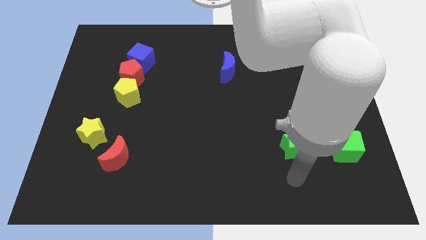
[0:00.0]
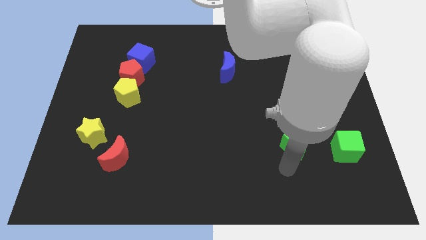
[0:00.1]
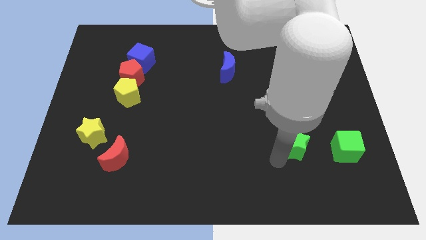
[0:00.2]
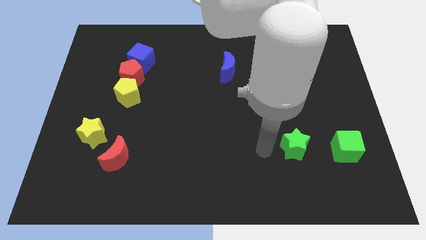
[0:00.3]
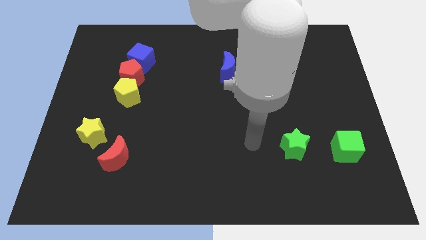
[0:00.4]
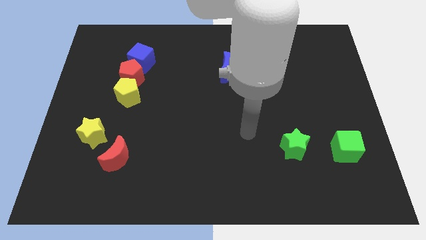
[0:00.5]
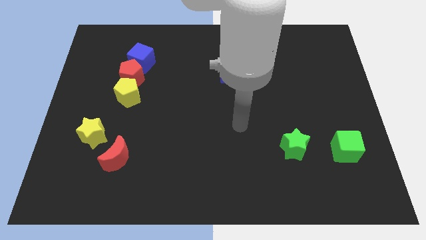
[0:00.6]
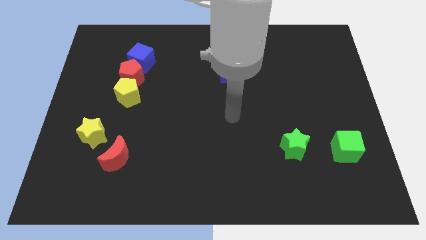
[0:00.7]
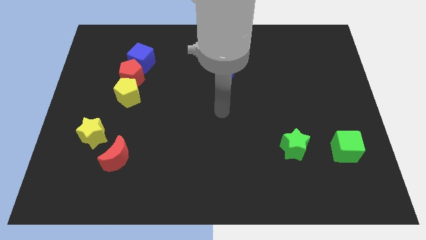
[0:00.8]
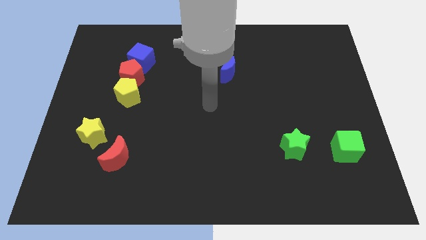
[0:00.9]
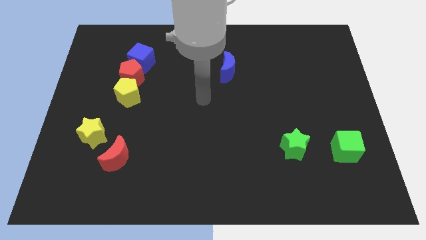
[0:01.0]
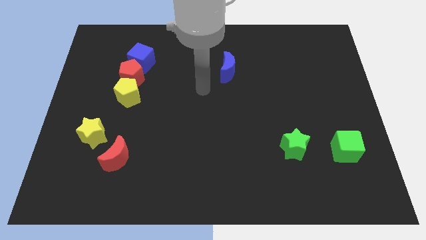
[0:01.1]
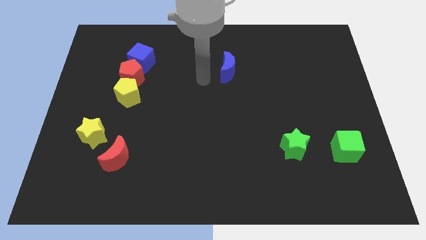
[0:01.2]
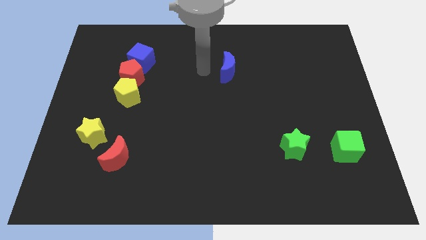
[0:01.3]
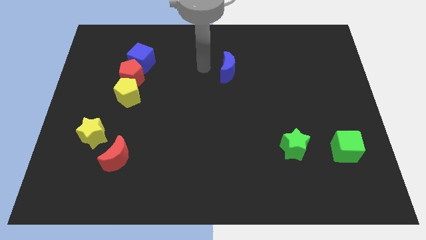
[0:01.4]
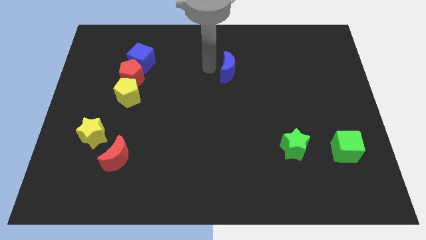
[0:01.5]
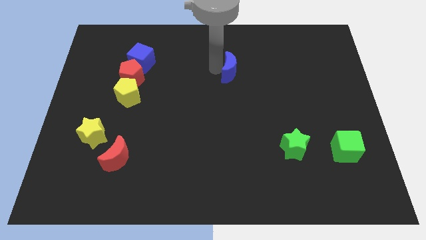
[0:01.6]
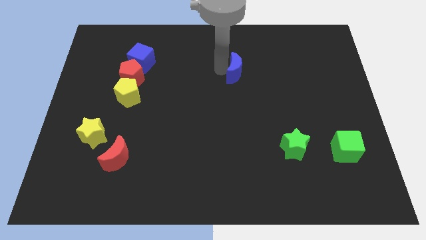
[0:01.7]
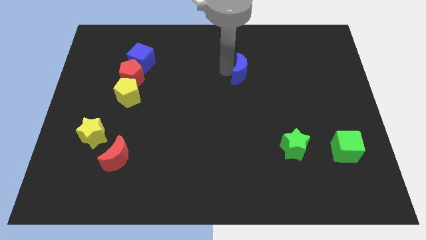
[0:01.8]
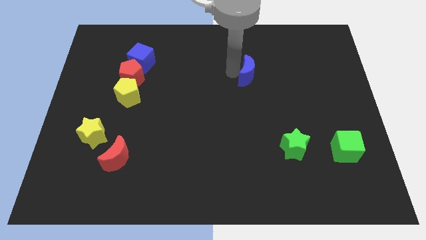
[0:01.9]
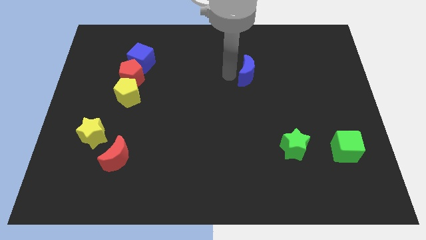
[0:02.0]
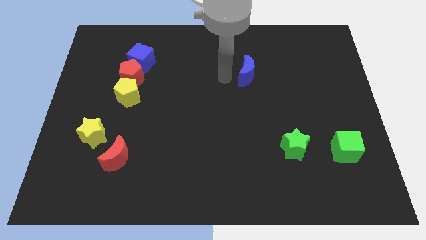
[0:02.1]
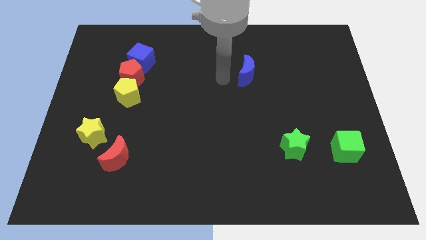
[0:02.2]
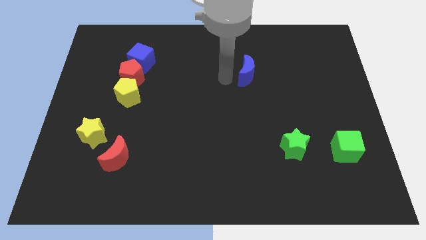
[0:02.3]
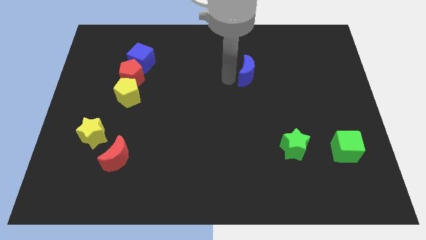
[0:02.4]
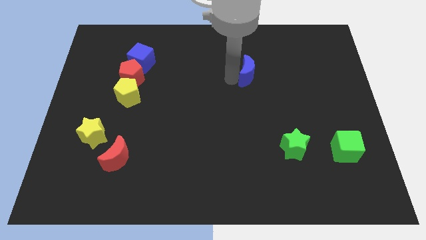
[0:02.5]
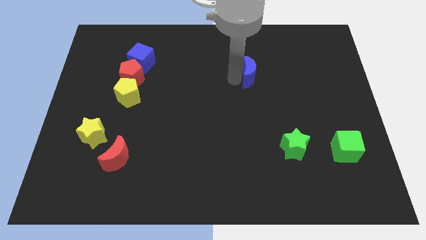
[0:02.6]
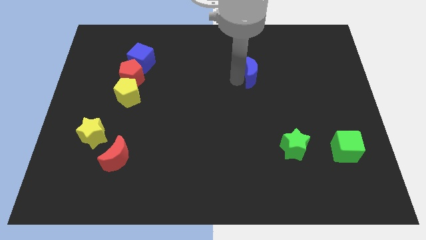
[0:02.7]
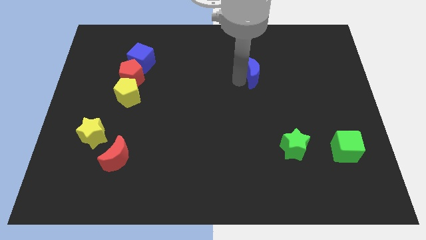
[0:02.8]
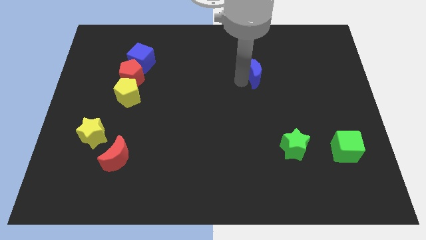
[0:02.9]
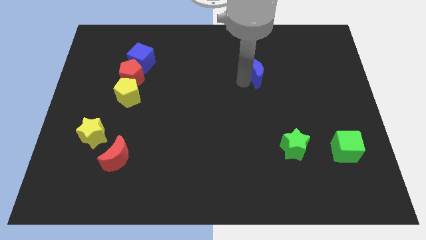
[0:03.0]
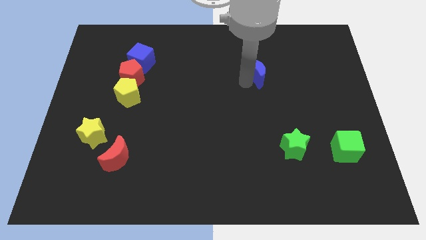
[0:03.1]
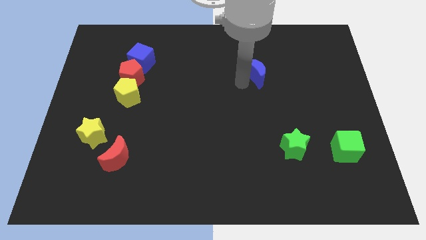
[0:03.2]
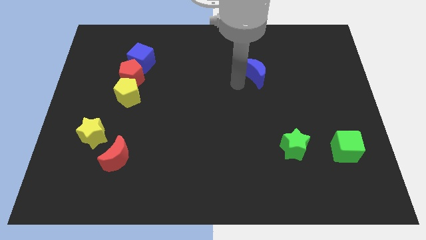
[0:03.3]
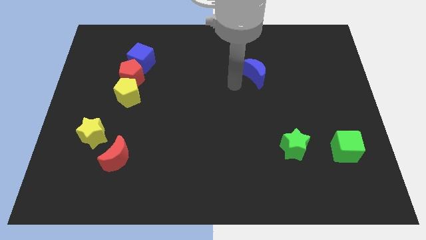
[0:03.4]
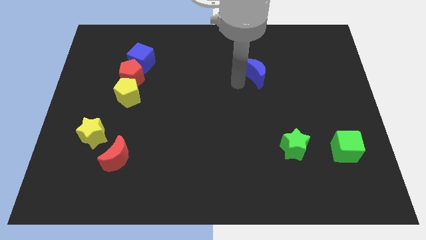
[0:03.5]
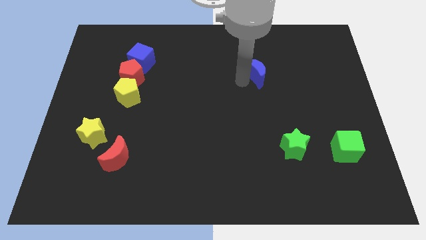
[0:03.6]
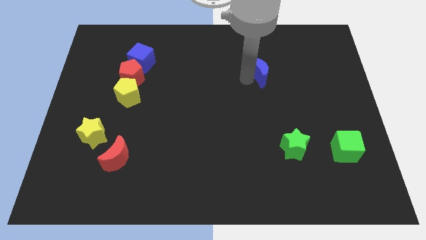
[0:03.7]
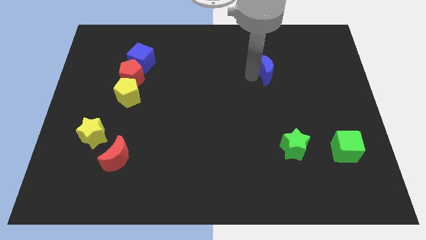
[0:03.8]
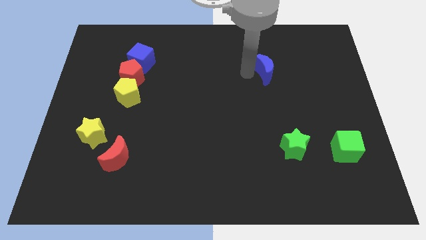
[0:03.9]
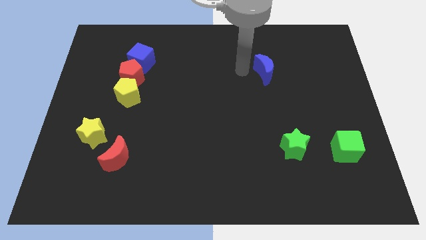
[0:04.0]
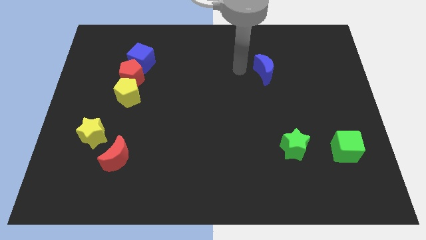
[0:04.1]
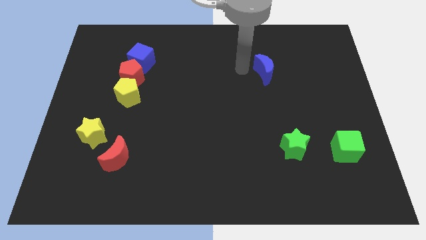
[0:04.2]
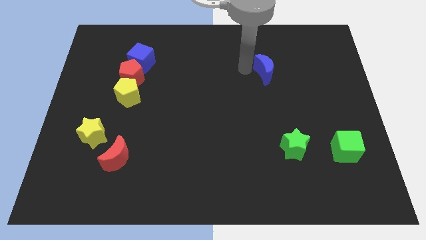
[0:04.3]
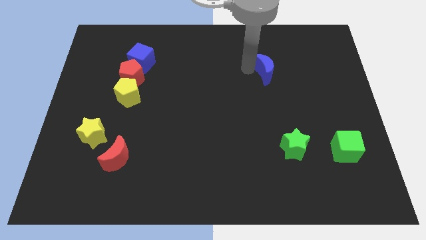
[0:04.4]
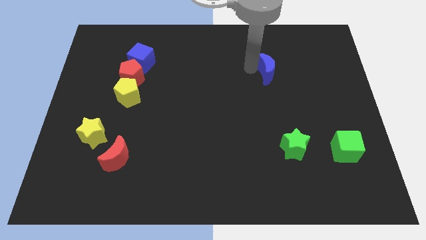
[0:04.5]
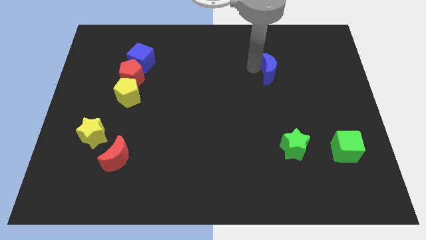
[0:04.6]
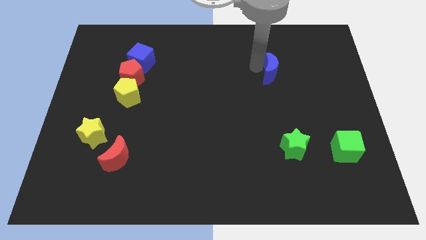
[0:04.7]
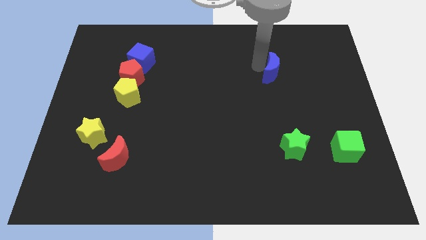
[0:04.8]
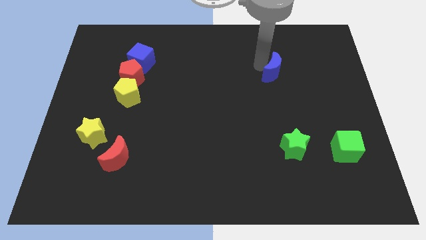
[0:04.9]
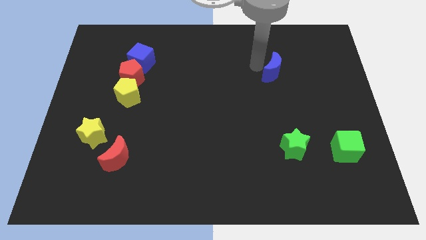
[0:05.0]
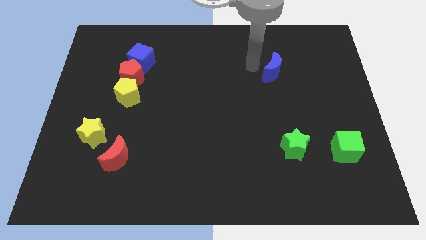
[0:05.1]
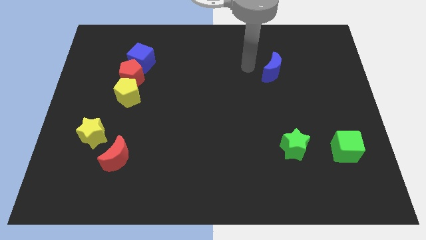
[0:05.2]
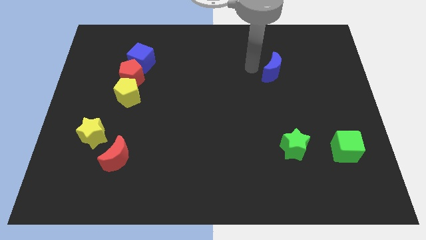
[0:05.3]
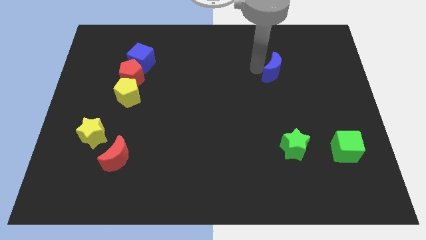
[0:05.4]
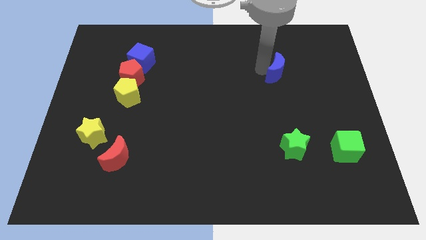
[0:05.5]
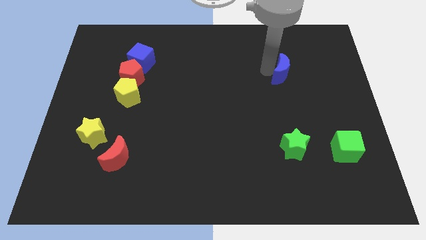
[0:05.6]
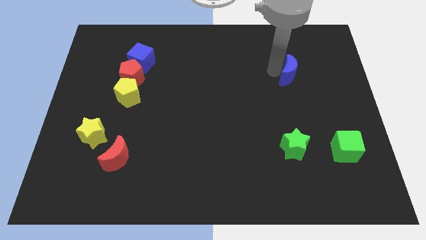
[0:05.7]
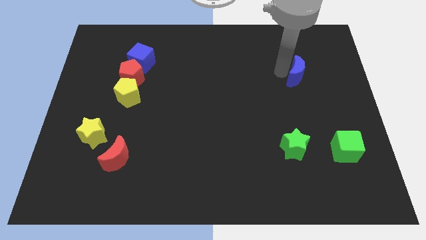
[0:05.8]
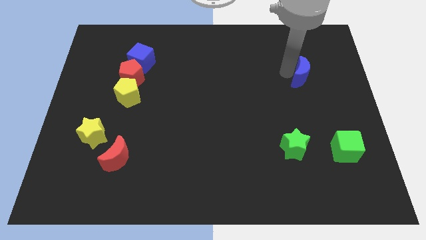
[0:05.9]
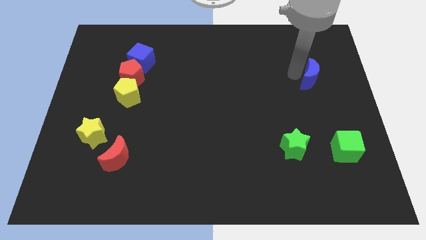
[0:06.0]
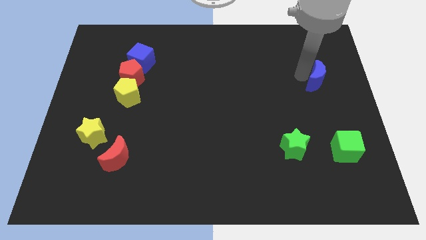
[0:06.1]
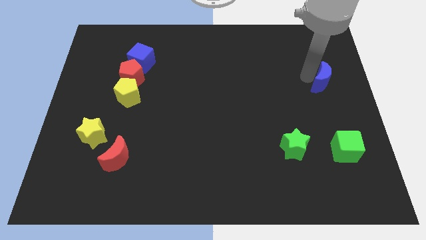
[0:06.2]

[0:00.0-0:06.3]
move the blue moon to the center right

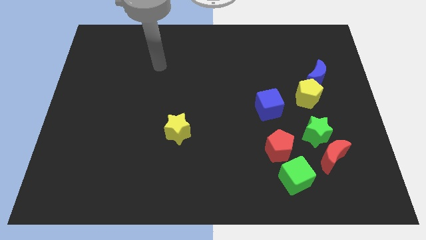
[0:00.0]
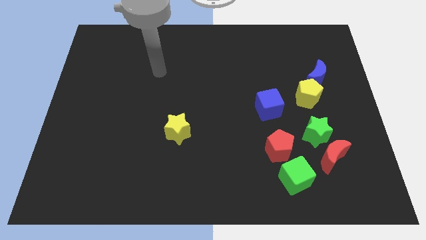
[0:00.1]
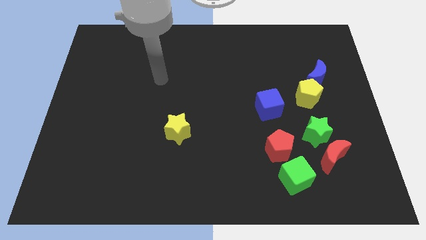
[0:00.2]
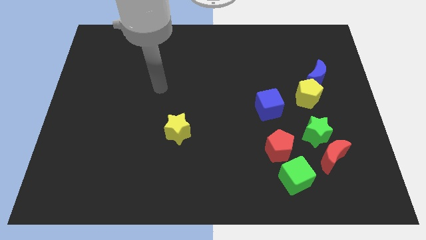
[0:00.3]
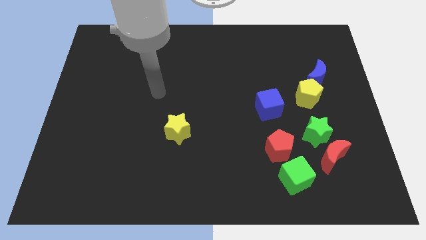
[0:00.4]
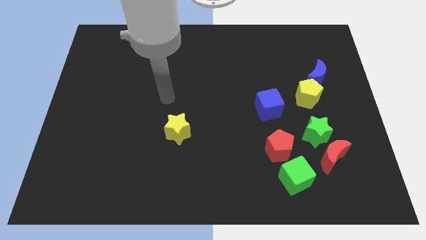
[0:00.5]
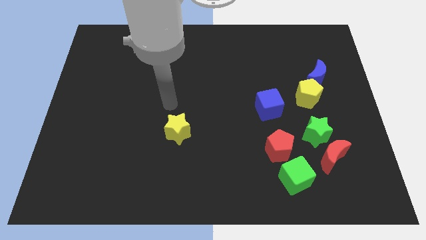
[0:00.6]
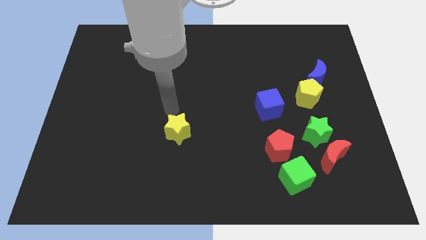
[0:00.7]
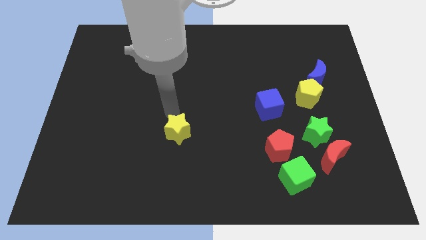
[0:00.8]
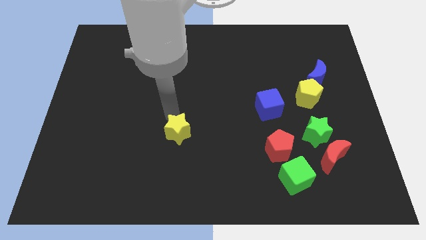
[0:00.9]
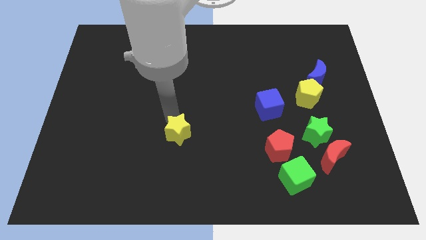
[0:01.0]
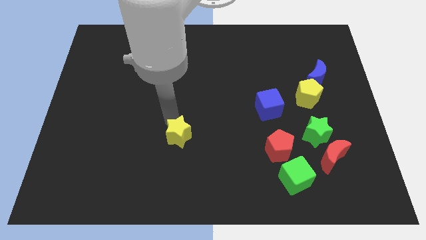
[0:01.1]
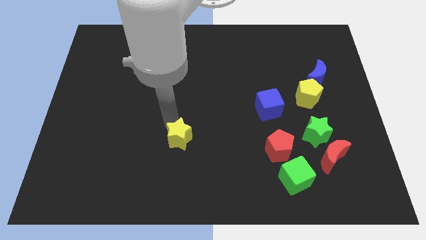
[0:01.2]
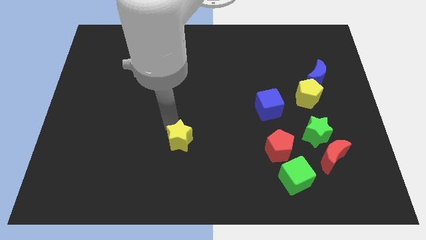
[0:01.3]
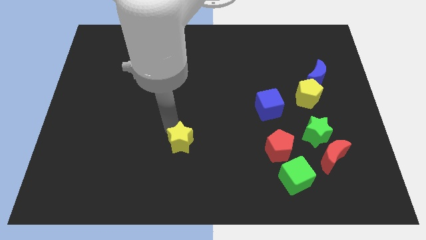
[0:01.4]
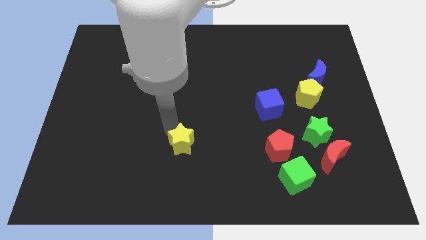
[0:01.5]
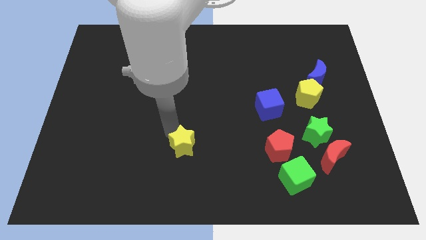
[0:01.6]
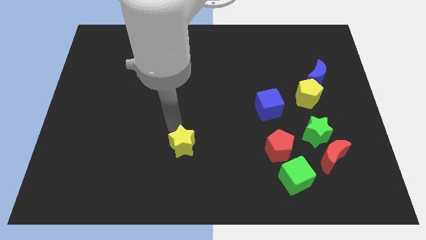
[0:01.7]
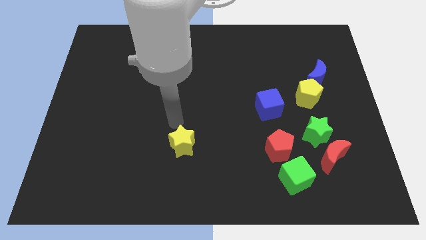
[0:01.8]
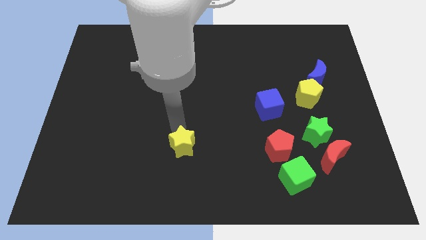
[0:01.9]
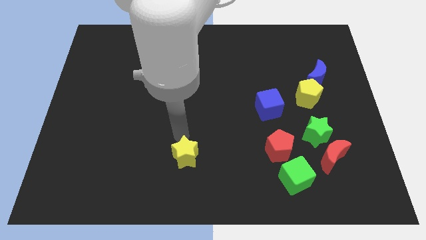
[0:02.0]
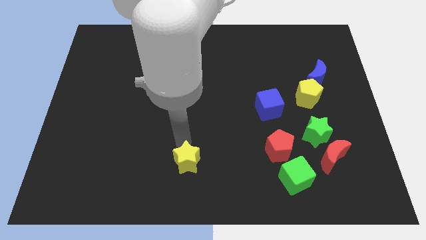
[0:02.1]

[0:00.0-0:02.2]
put the yellow star to the bottom side
